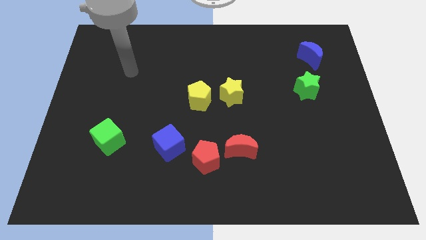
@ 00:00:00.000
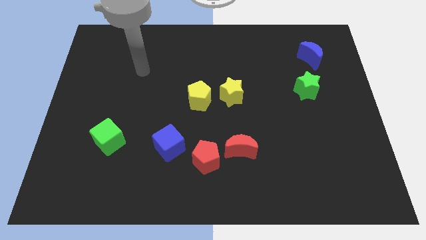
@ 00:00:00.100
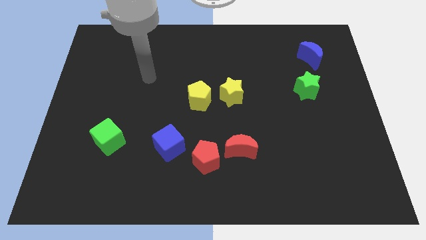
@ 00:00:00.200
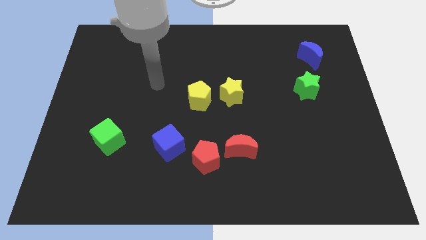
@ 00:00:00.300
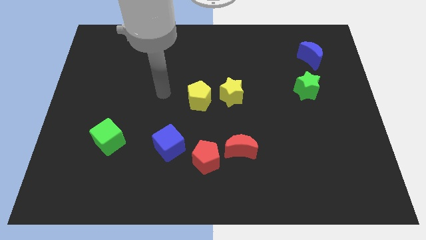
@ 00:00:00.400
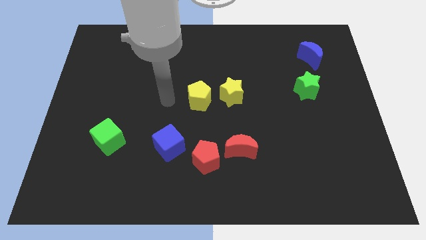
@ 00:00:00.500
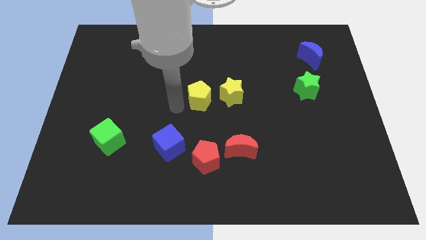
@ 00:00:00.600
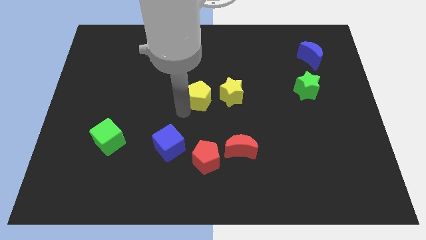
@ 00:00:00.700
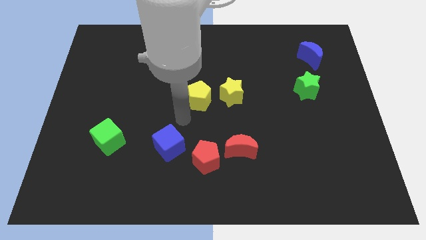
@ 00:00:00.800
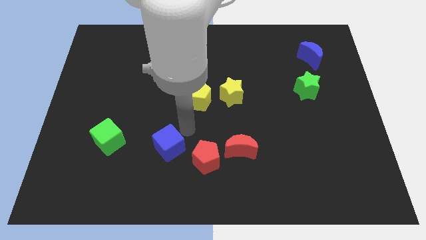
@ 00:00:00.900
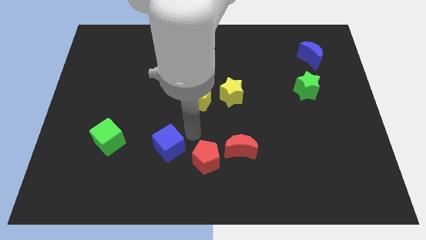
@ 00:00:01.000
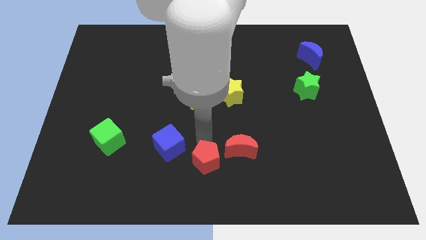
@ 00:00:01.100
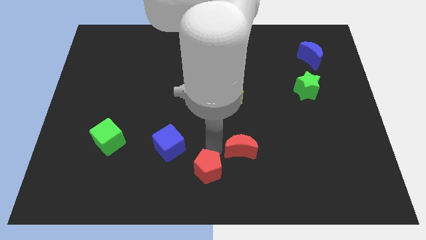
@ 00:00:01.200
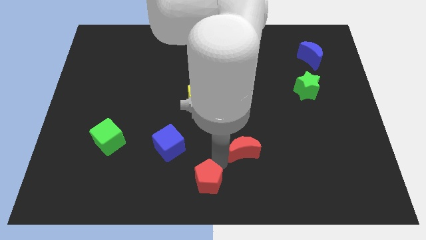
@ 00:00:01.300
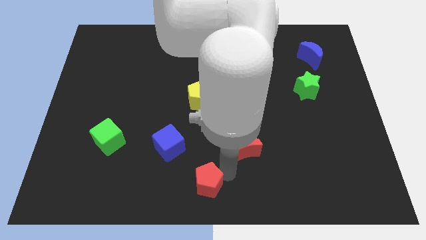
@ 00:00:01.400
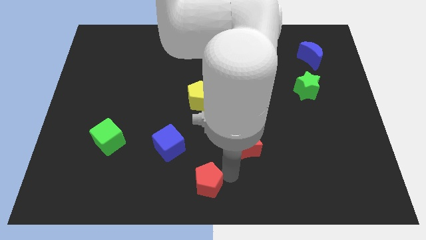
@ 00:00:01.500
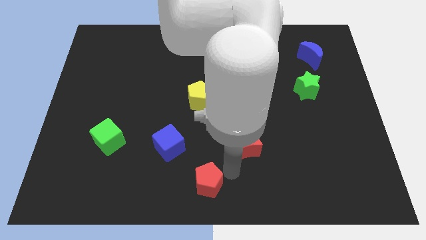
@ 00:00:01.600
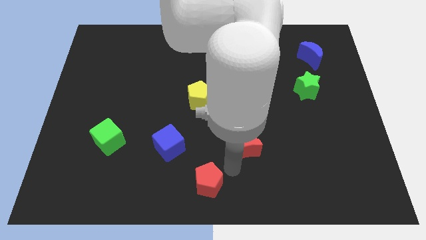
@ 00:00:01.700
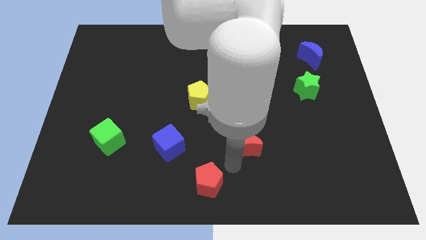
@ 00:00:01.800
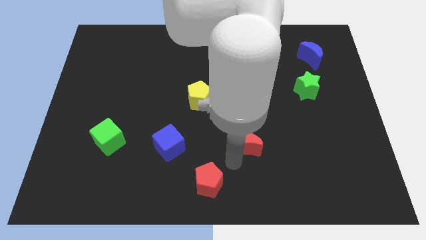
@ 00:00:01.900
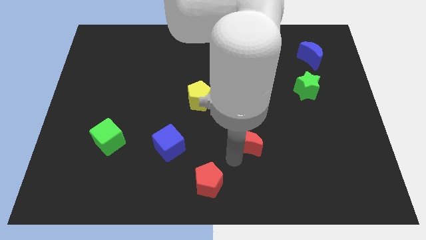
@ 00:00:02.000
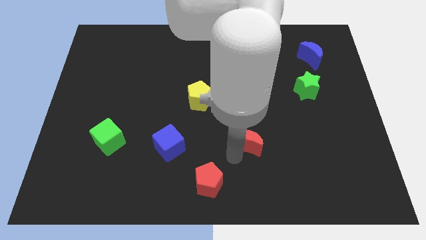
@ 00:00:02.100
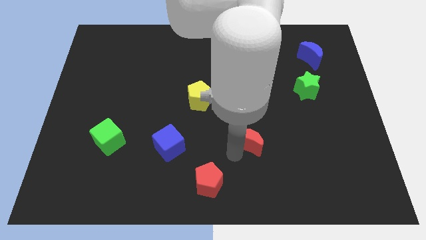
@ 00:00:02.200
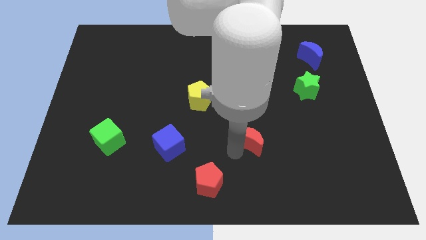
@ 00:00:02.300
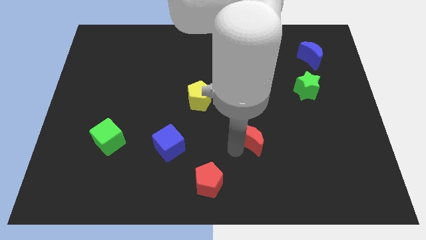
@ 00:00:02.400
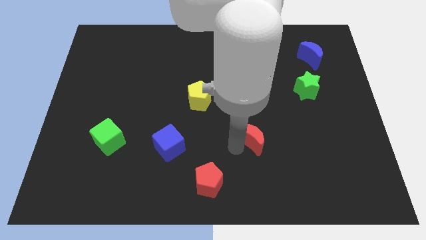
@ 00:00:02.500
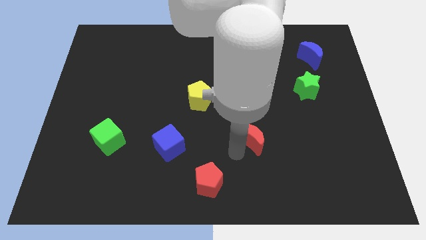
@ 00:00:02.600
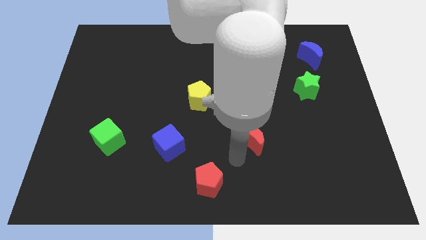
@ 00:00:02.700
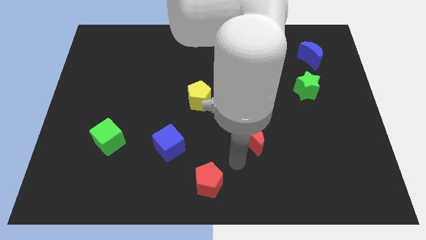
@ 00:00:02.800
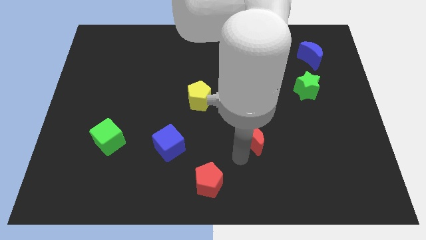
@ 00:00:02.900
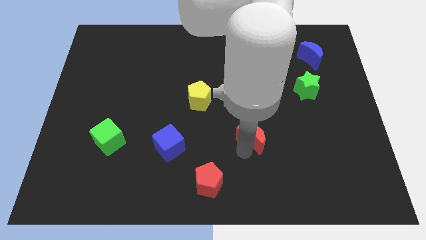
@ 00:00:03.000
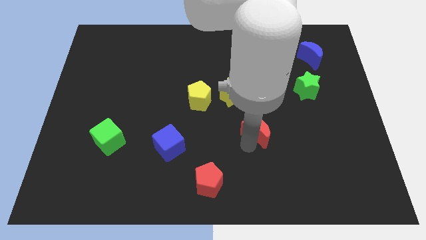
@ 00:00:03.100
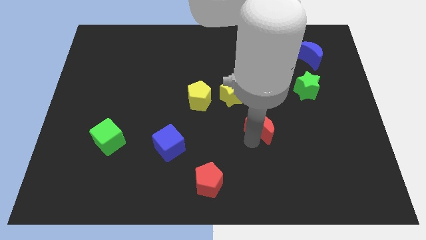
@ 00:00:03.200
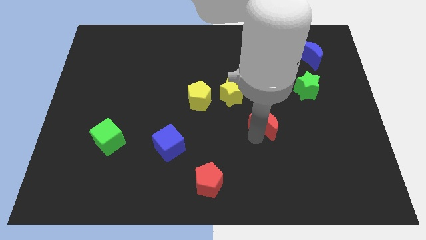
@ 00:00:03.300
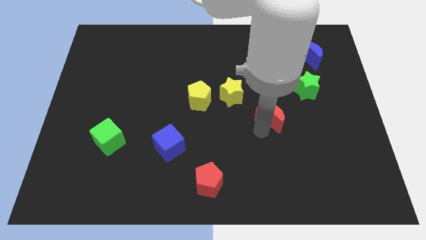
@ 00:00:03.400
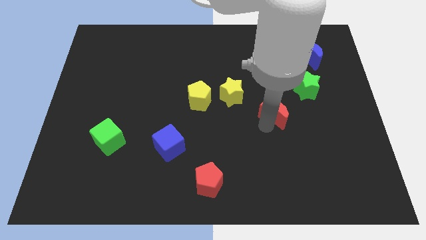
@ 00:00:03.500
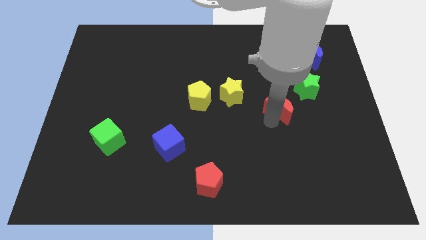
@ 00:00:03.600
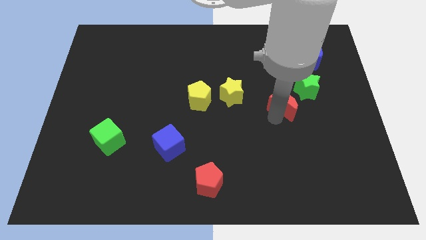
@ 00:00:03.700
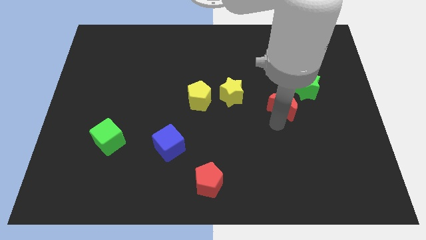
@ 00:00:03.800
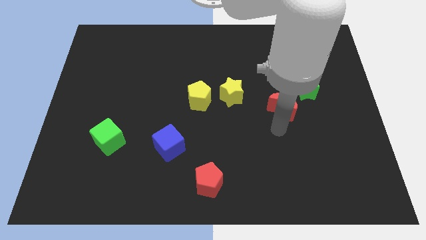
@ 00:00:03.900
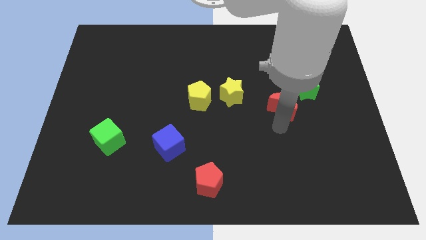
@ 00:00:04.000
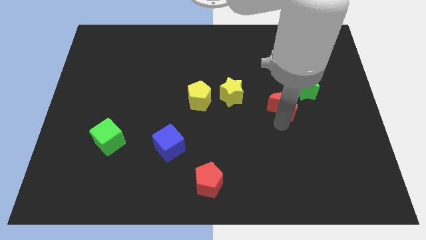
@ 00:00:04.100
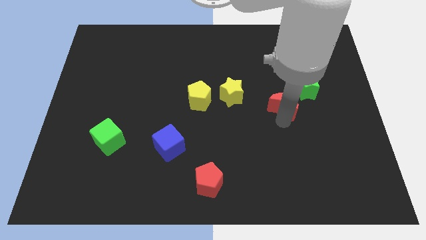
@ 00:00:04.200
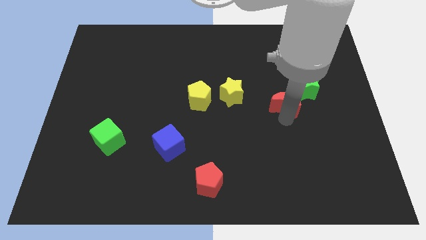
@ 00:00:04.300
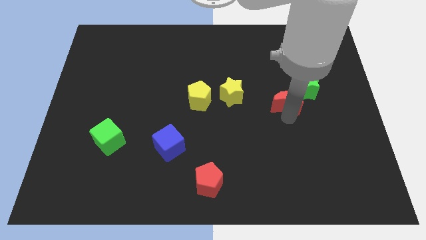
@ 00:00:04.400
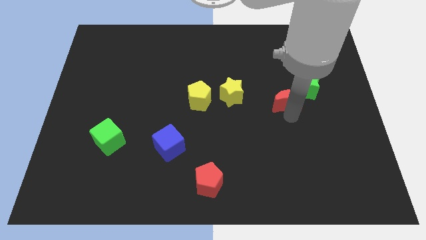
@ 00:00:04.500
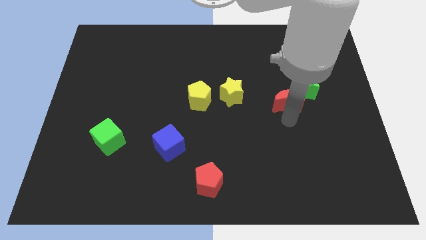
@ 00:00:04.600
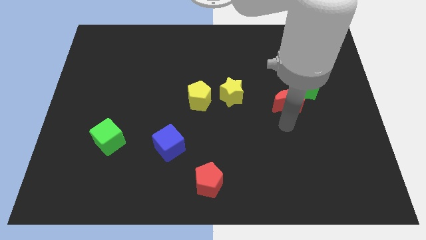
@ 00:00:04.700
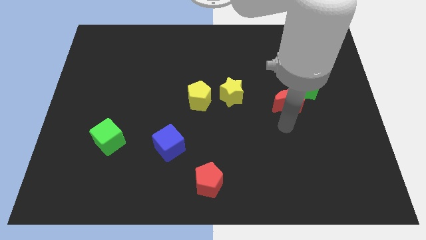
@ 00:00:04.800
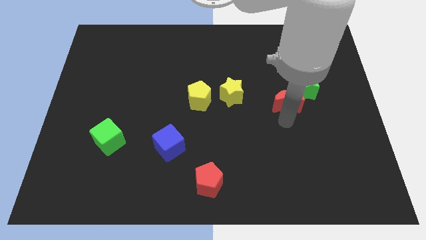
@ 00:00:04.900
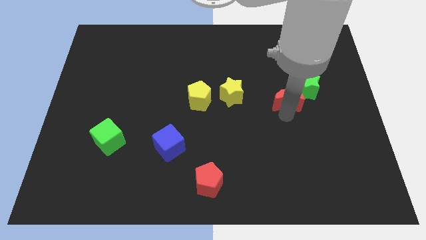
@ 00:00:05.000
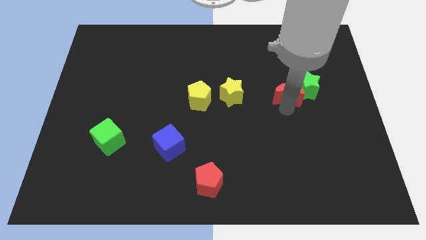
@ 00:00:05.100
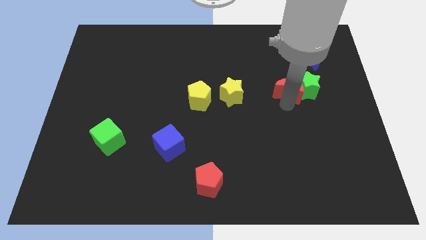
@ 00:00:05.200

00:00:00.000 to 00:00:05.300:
slide the red moon upwards and then right

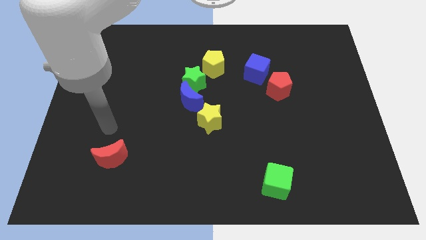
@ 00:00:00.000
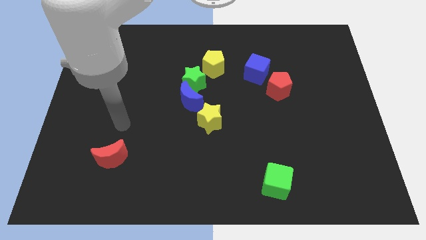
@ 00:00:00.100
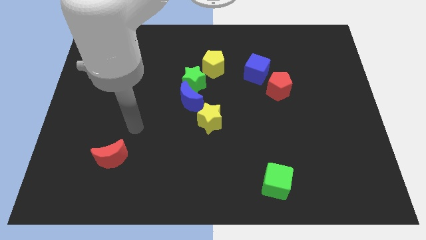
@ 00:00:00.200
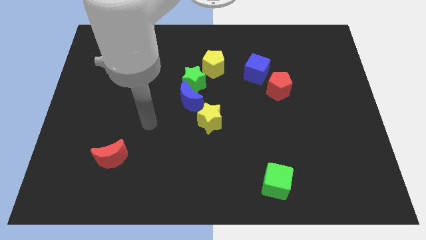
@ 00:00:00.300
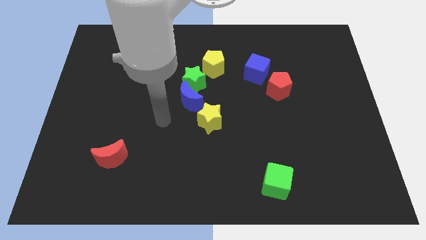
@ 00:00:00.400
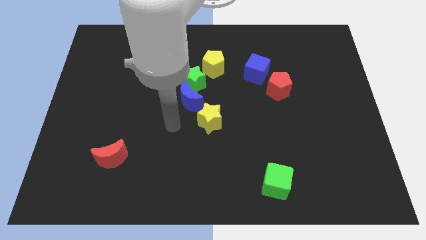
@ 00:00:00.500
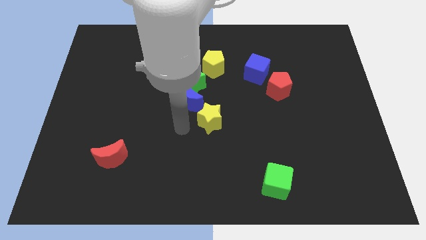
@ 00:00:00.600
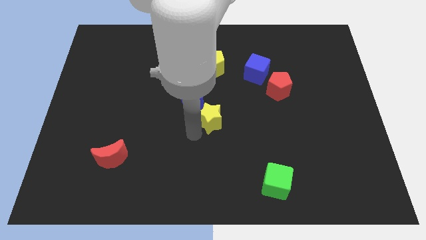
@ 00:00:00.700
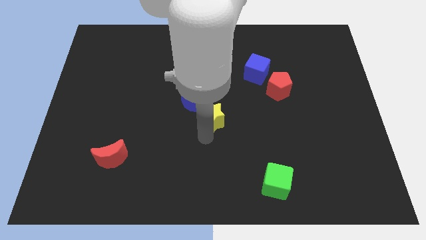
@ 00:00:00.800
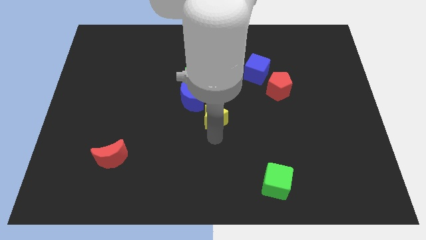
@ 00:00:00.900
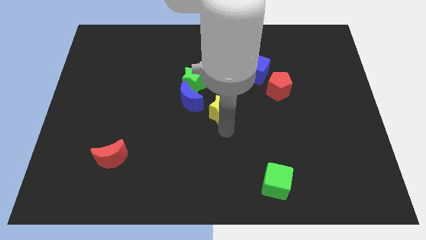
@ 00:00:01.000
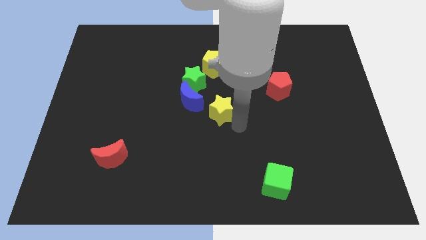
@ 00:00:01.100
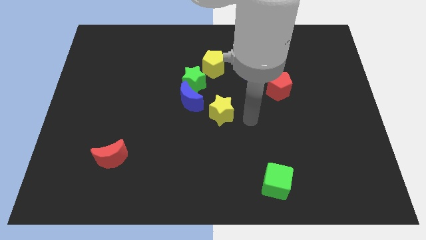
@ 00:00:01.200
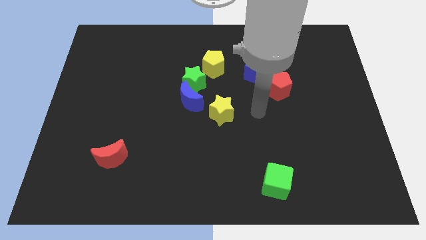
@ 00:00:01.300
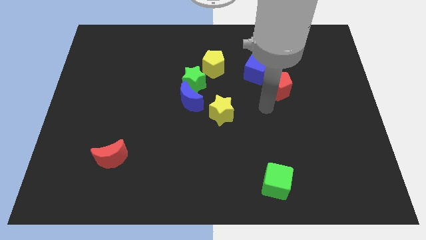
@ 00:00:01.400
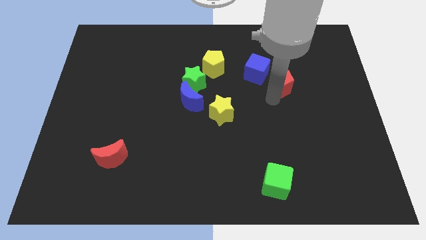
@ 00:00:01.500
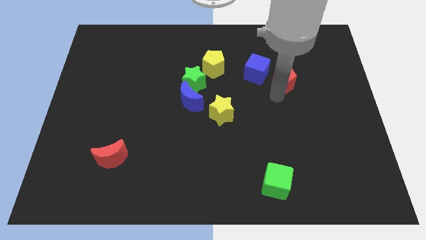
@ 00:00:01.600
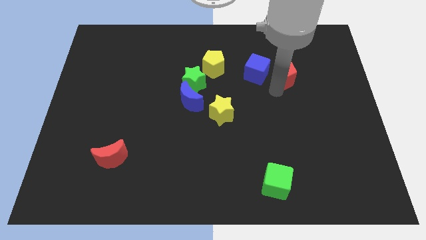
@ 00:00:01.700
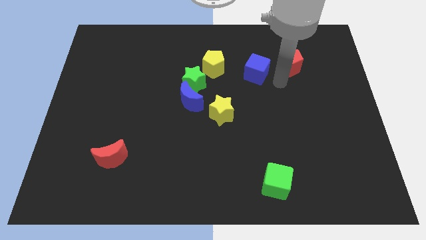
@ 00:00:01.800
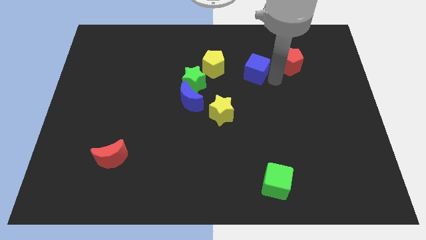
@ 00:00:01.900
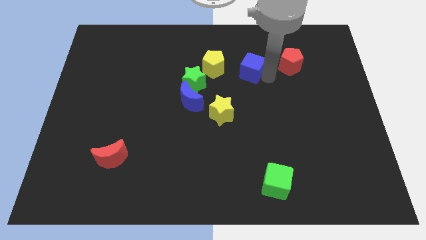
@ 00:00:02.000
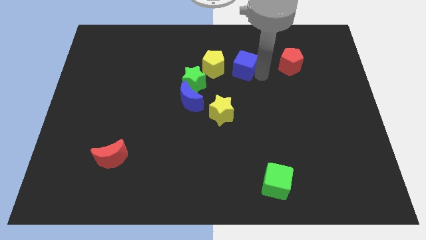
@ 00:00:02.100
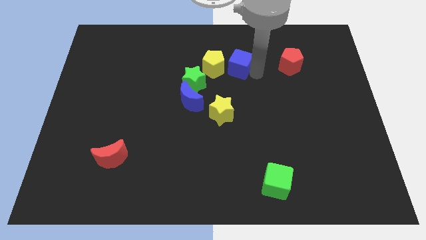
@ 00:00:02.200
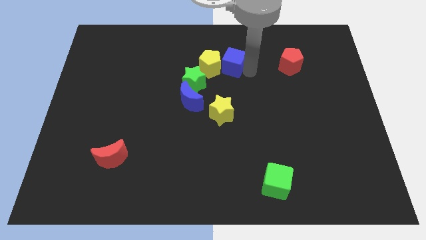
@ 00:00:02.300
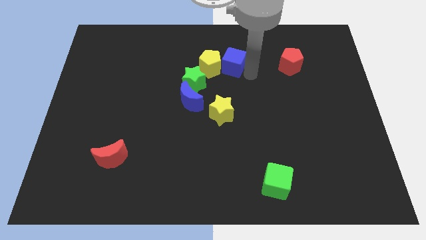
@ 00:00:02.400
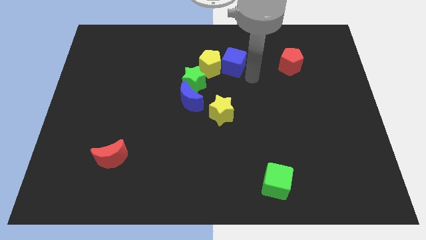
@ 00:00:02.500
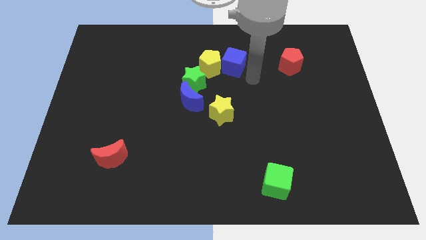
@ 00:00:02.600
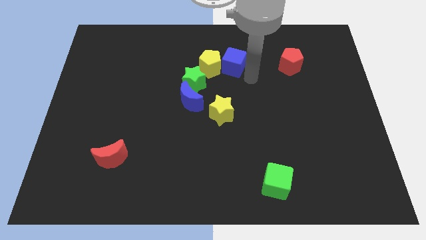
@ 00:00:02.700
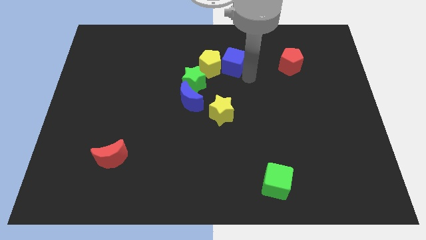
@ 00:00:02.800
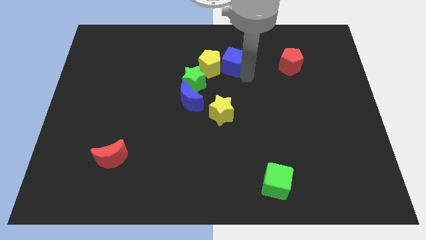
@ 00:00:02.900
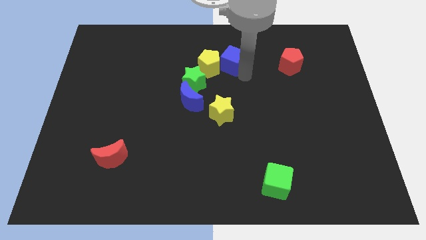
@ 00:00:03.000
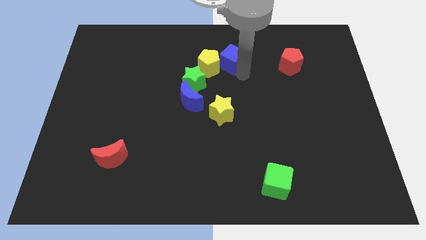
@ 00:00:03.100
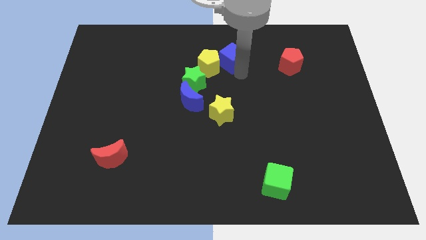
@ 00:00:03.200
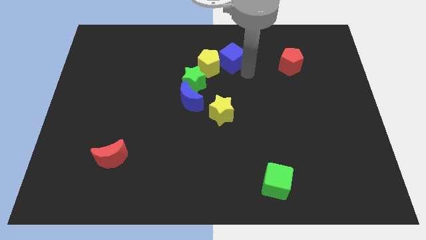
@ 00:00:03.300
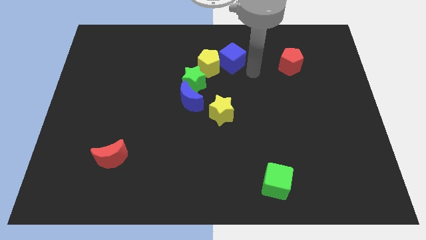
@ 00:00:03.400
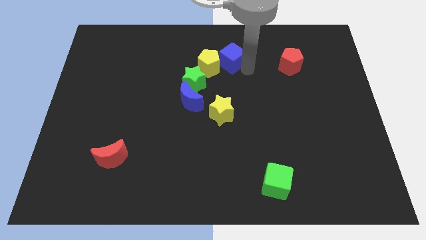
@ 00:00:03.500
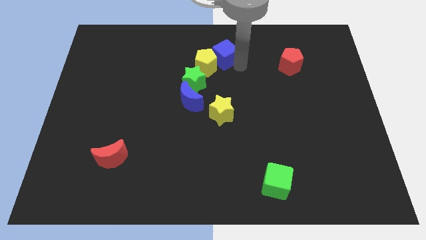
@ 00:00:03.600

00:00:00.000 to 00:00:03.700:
slide the blue cube left a bit
